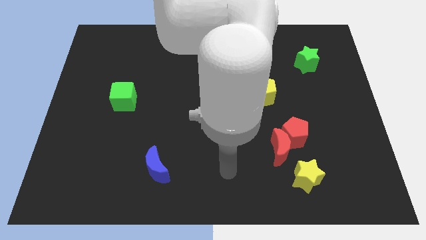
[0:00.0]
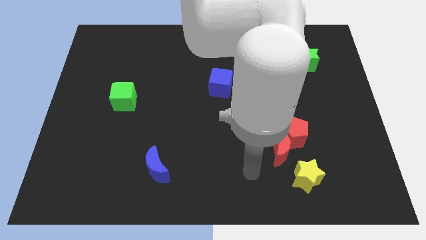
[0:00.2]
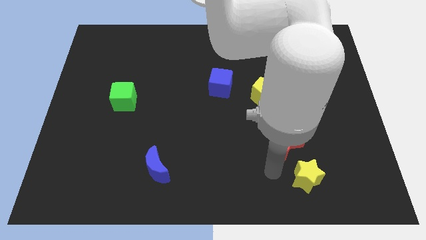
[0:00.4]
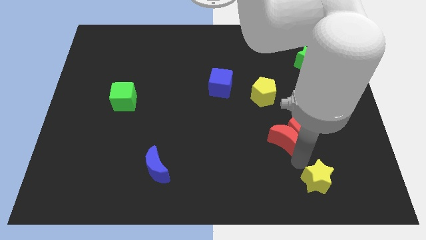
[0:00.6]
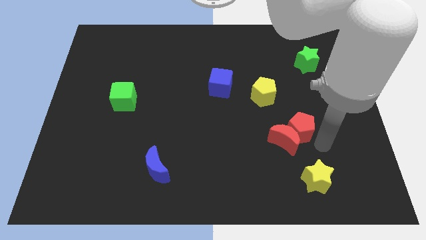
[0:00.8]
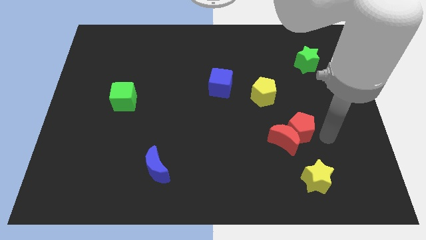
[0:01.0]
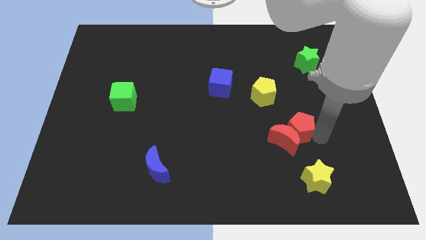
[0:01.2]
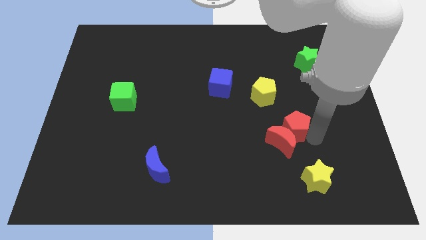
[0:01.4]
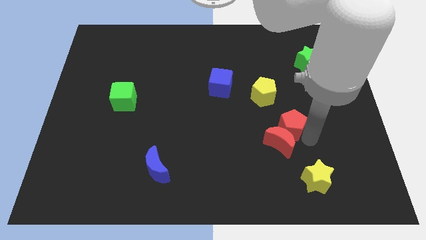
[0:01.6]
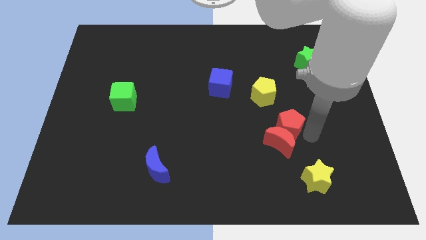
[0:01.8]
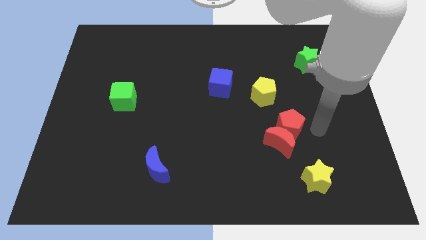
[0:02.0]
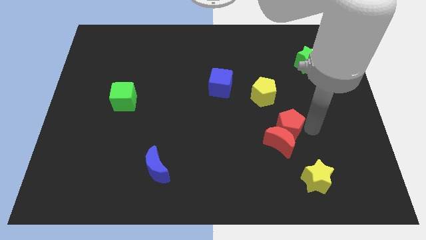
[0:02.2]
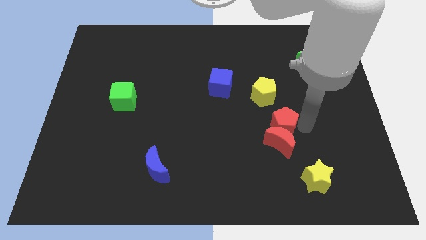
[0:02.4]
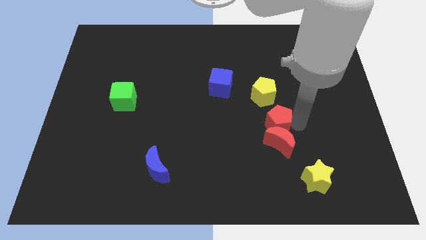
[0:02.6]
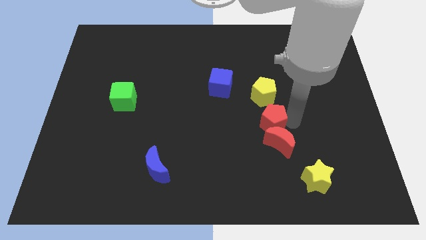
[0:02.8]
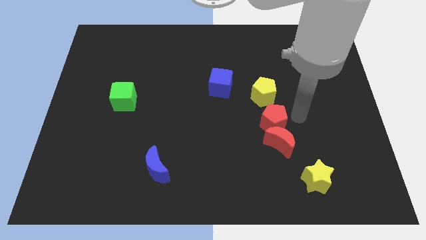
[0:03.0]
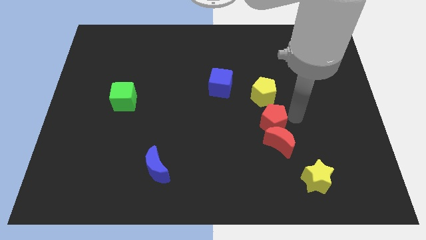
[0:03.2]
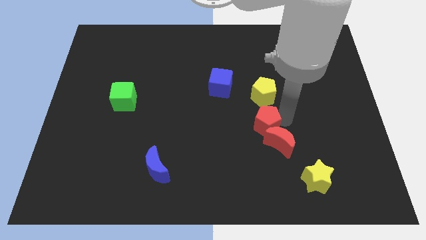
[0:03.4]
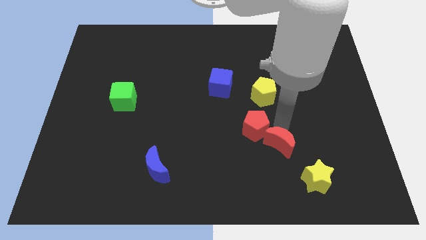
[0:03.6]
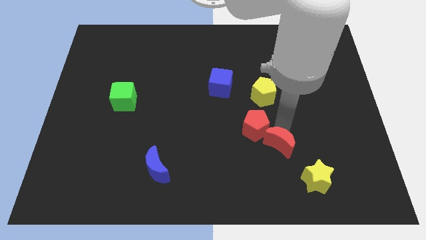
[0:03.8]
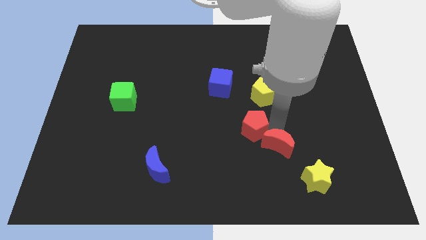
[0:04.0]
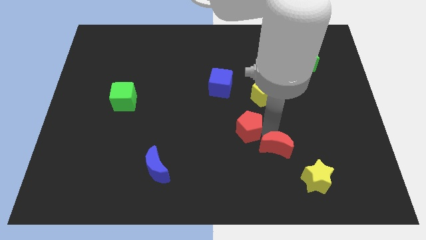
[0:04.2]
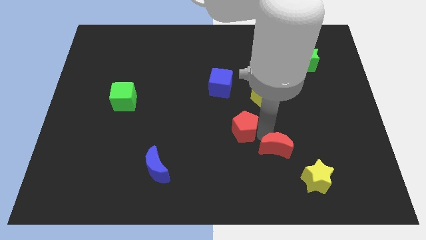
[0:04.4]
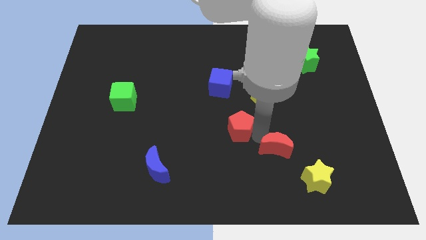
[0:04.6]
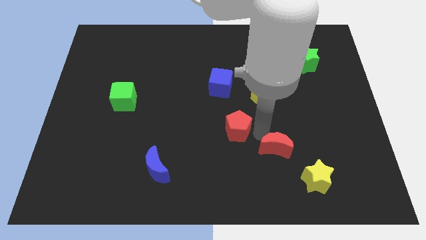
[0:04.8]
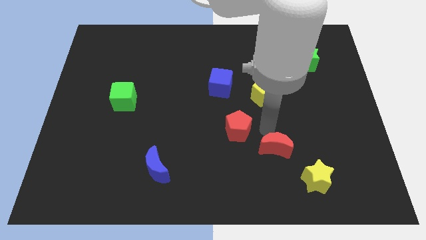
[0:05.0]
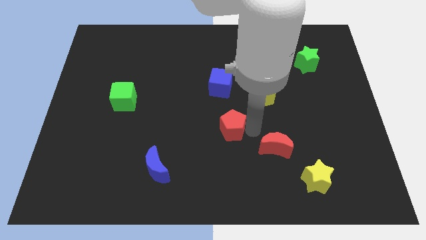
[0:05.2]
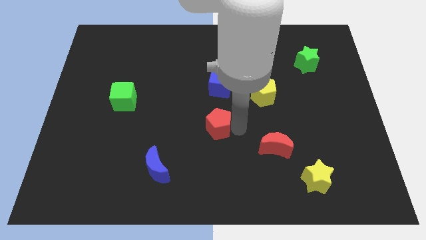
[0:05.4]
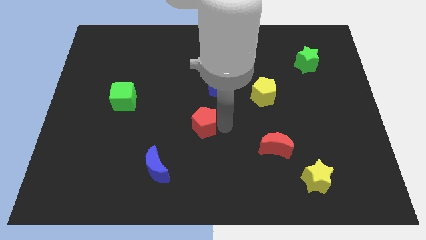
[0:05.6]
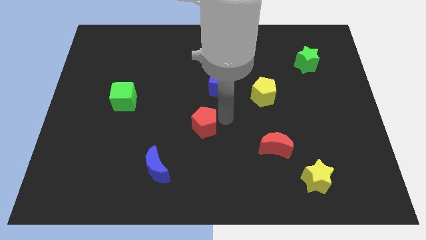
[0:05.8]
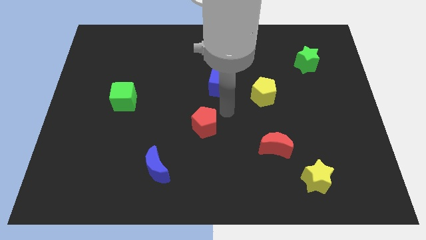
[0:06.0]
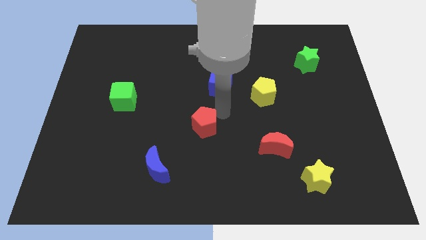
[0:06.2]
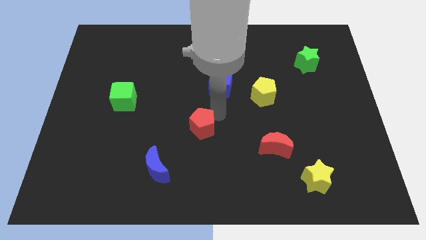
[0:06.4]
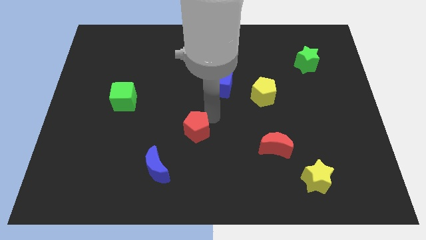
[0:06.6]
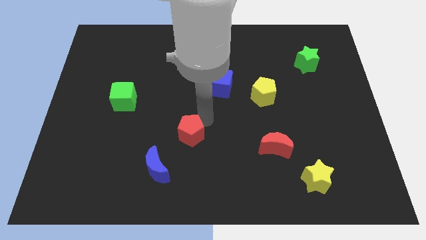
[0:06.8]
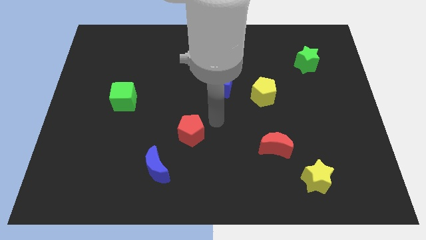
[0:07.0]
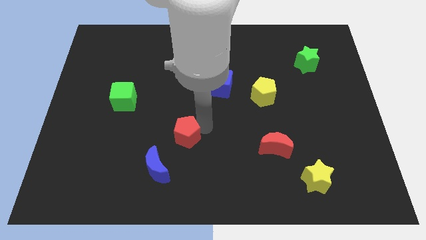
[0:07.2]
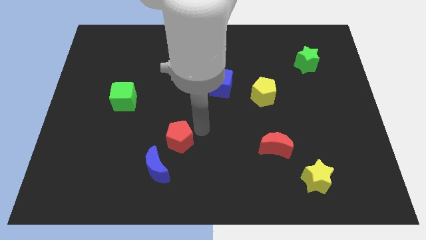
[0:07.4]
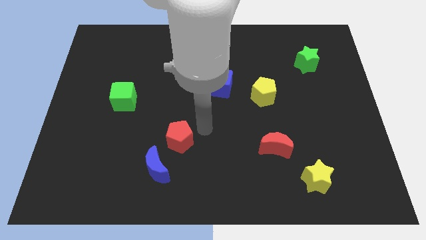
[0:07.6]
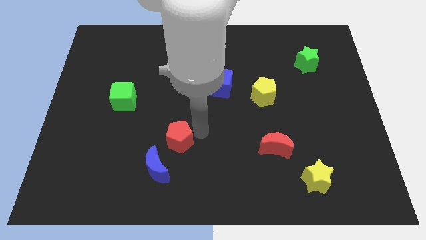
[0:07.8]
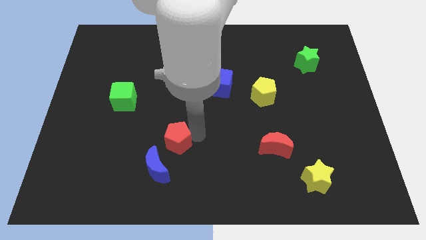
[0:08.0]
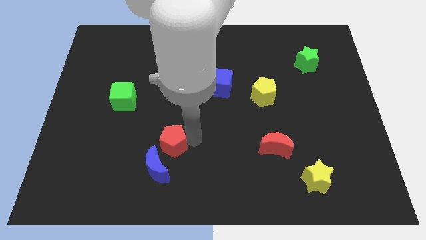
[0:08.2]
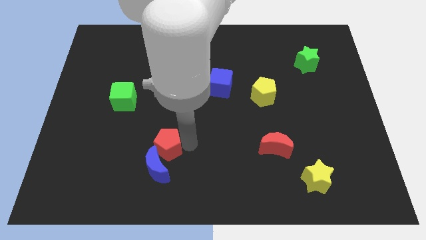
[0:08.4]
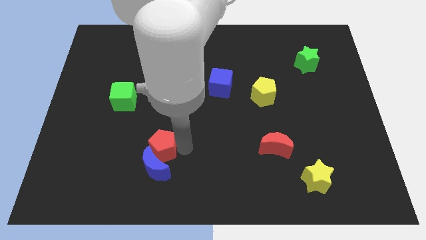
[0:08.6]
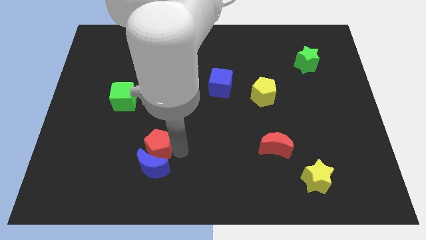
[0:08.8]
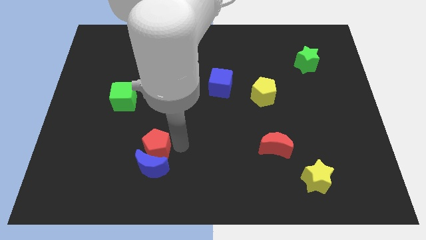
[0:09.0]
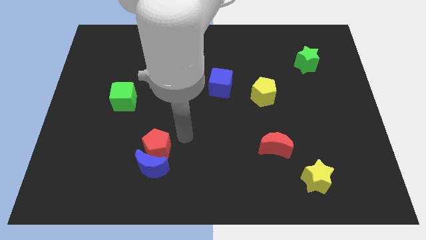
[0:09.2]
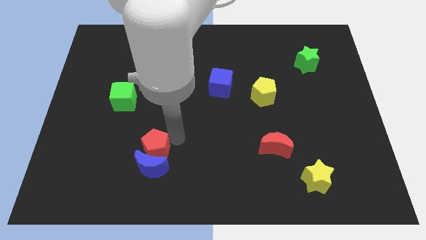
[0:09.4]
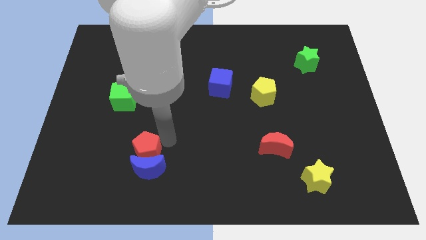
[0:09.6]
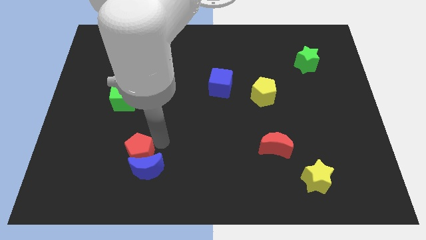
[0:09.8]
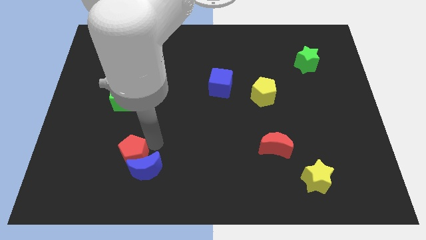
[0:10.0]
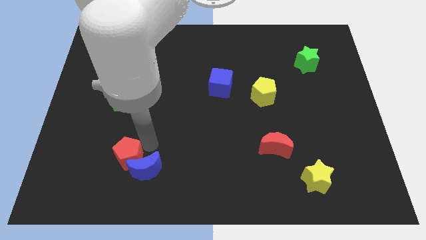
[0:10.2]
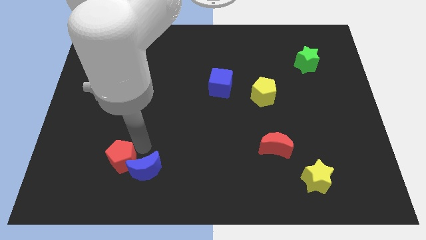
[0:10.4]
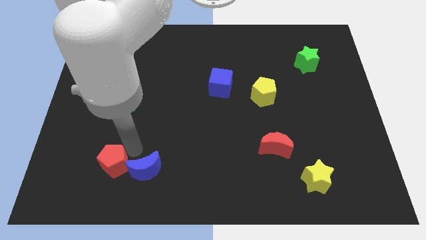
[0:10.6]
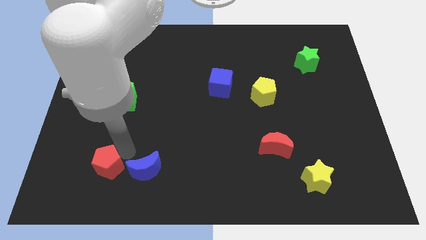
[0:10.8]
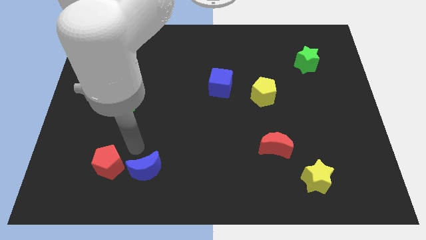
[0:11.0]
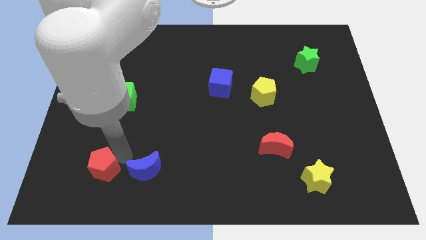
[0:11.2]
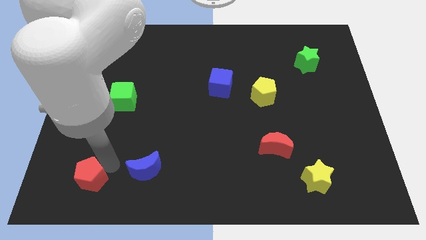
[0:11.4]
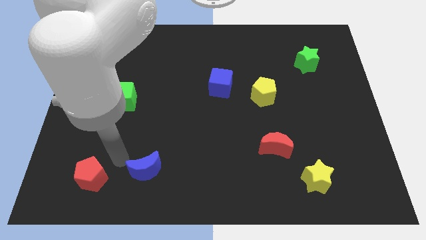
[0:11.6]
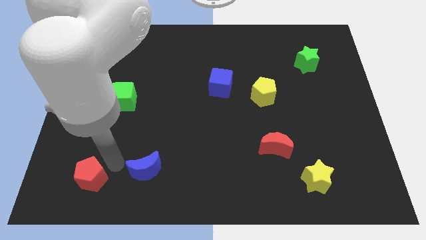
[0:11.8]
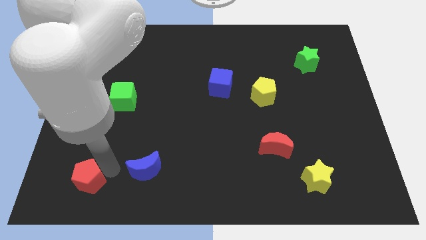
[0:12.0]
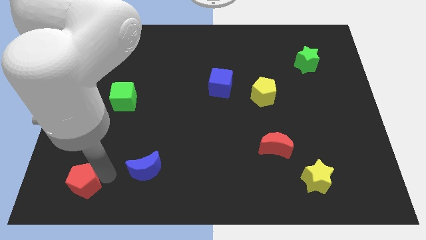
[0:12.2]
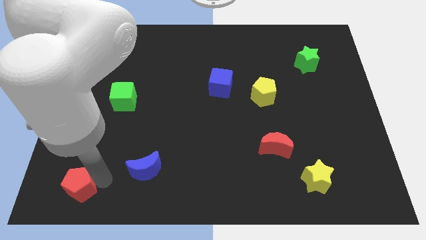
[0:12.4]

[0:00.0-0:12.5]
push the red pentagon to the bottom left of the board

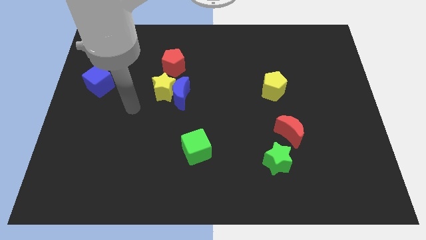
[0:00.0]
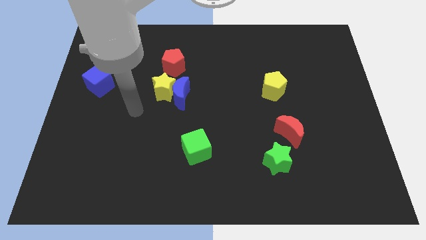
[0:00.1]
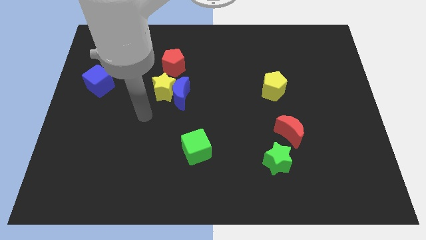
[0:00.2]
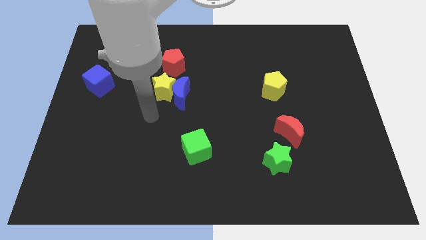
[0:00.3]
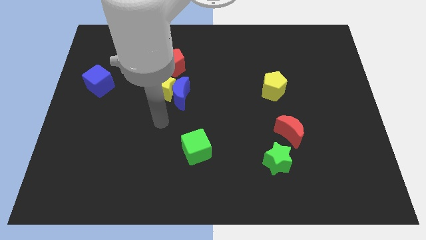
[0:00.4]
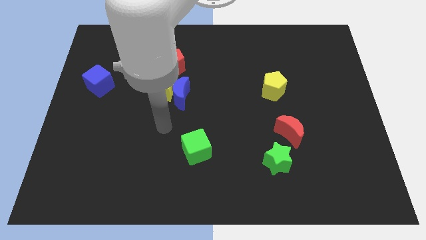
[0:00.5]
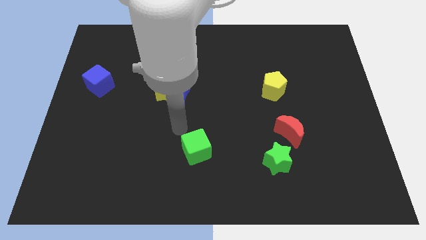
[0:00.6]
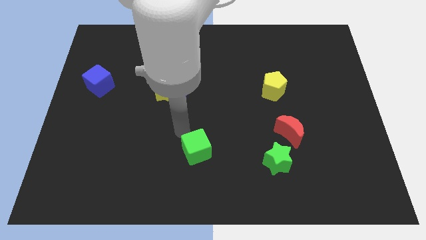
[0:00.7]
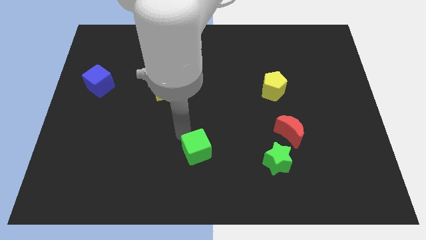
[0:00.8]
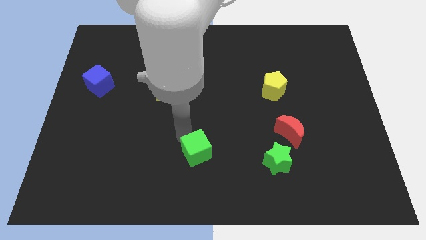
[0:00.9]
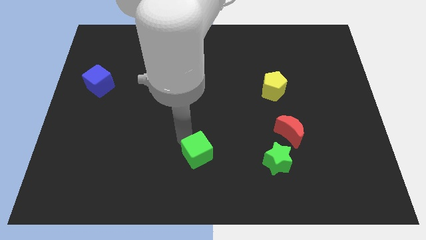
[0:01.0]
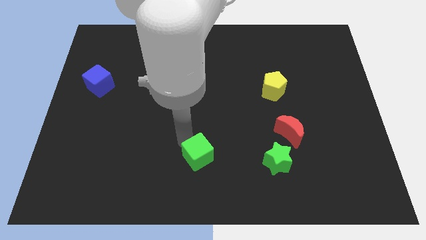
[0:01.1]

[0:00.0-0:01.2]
push the green cube to the bottom
